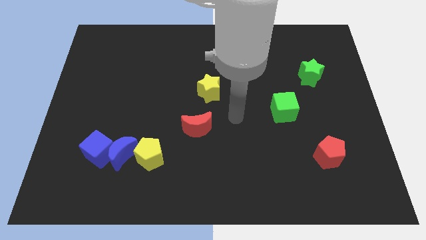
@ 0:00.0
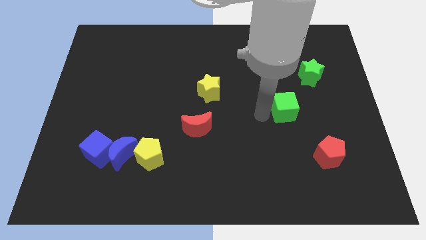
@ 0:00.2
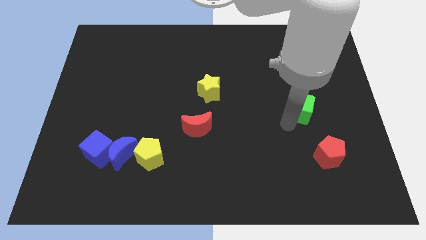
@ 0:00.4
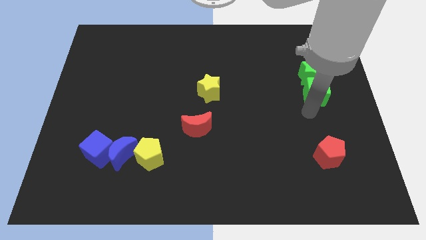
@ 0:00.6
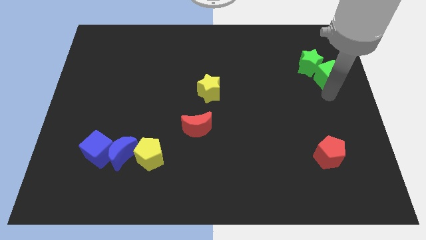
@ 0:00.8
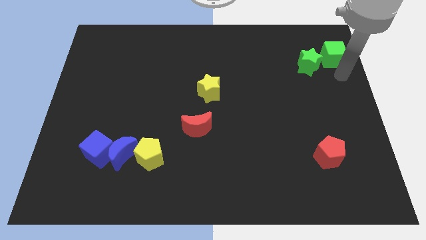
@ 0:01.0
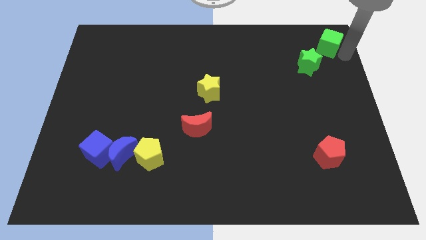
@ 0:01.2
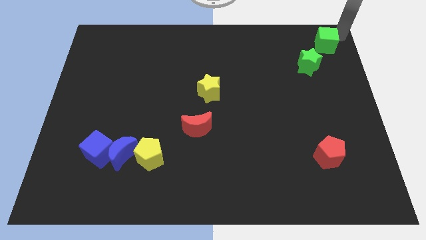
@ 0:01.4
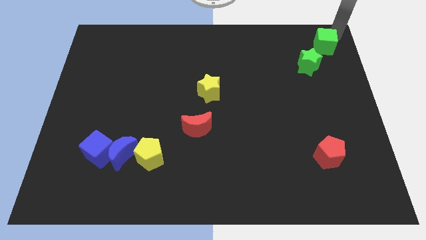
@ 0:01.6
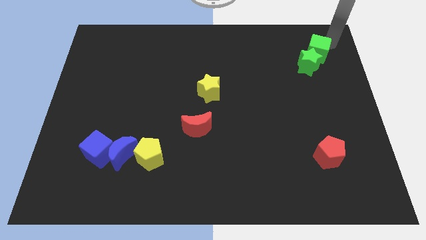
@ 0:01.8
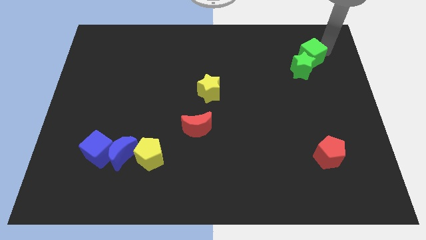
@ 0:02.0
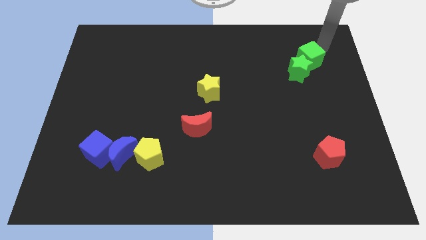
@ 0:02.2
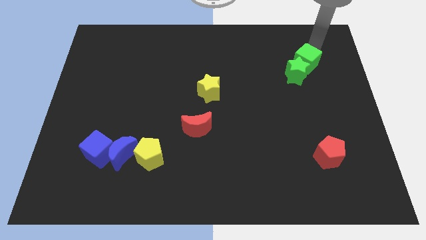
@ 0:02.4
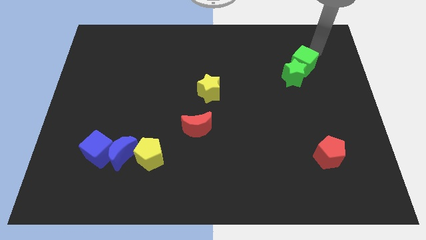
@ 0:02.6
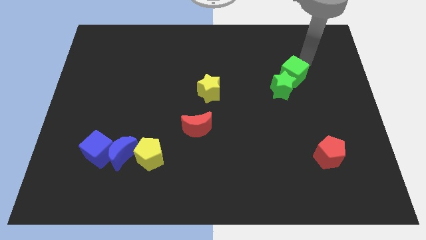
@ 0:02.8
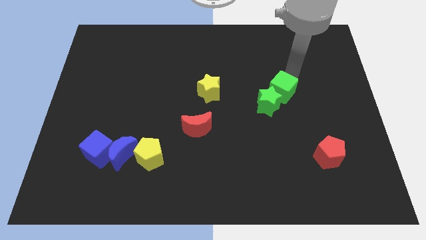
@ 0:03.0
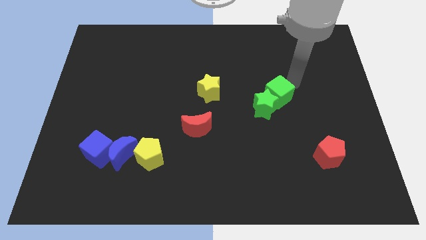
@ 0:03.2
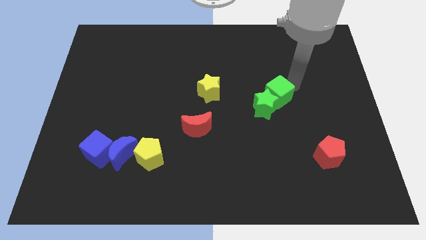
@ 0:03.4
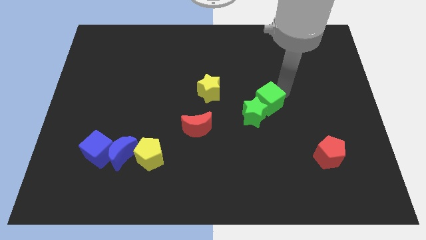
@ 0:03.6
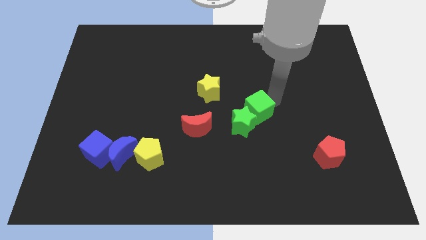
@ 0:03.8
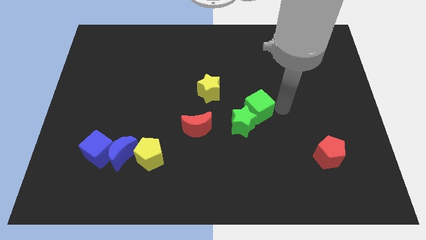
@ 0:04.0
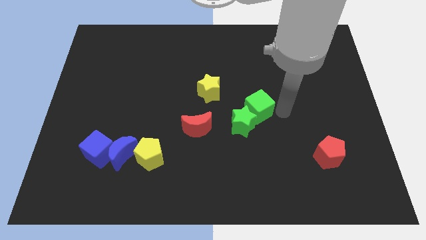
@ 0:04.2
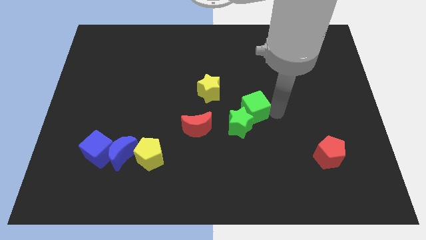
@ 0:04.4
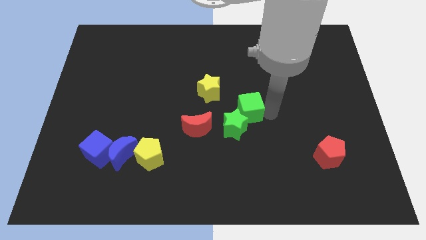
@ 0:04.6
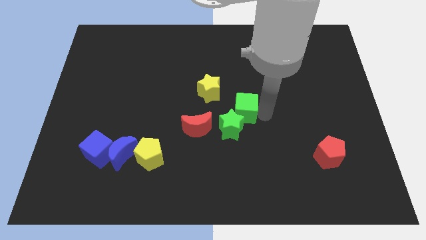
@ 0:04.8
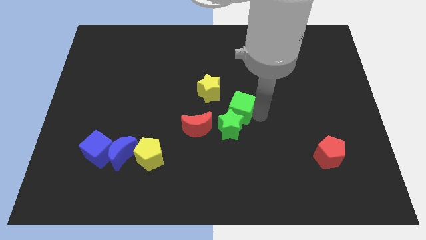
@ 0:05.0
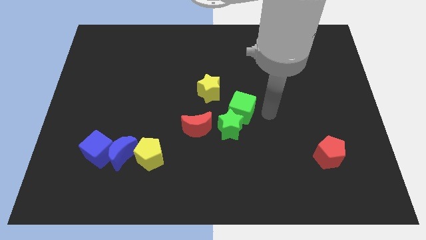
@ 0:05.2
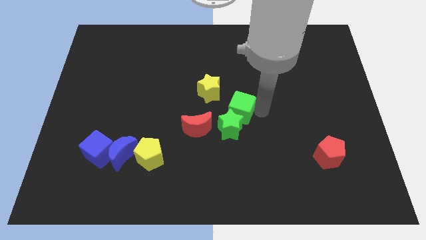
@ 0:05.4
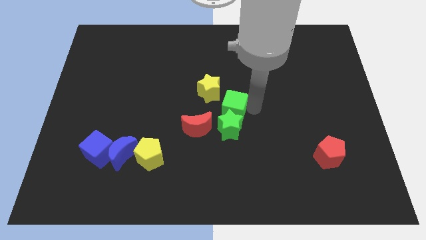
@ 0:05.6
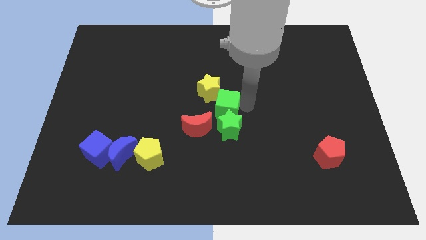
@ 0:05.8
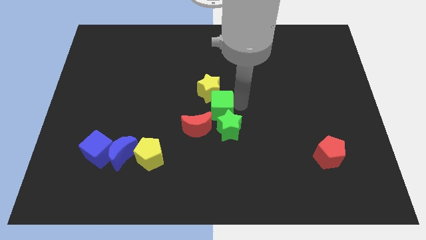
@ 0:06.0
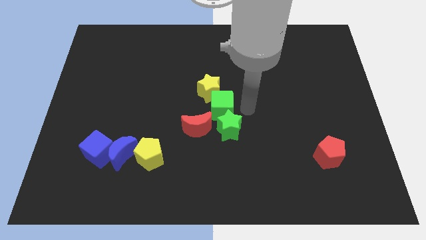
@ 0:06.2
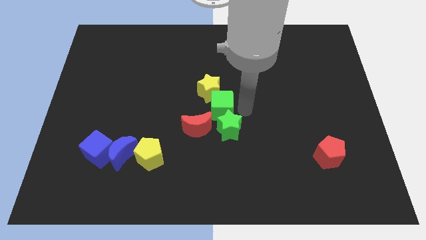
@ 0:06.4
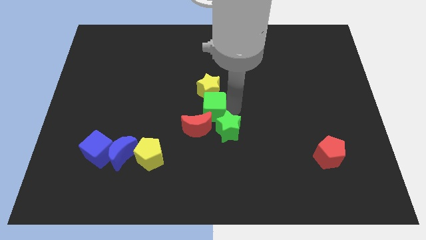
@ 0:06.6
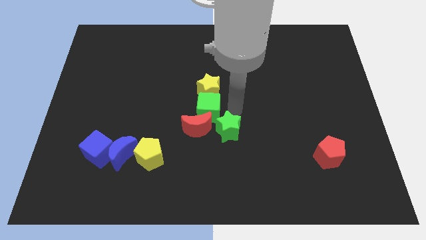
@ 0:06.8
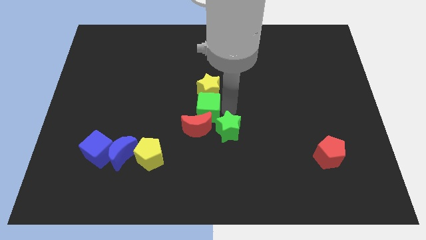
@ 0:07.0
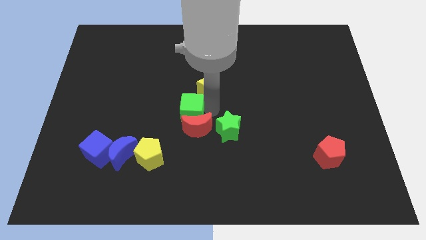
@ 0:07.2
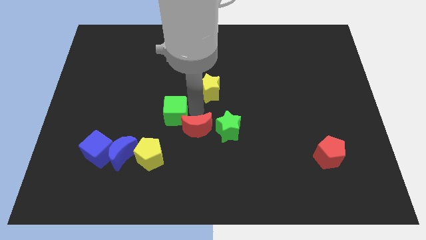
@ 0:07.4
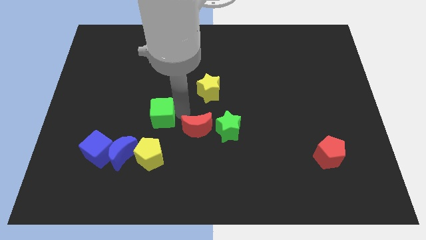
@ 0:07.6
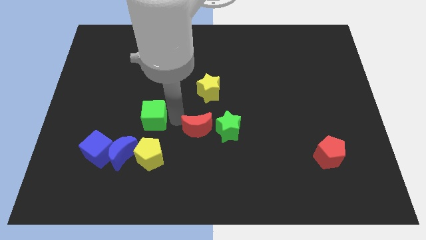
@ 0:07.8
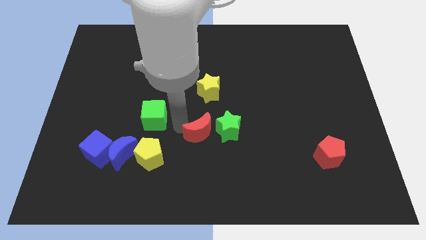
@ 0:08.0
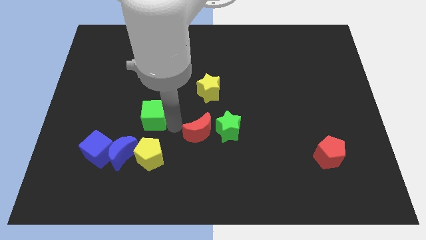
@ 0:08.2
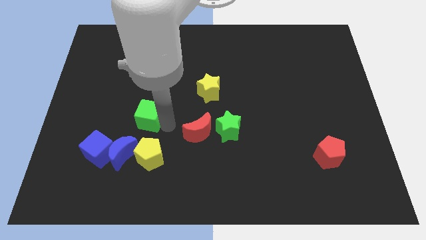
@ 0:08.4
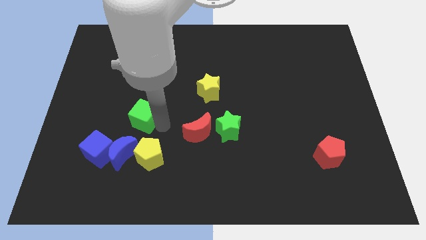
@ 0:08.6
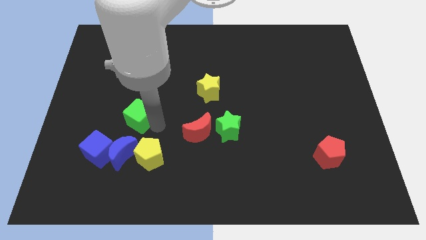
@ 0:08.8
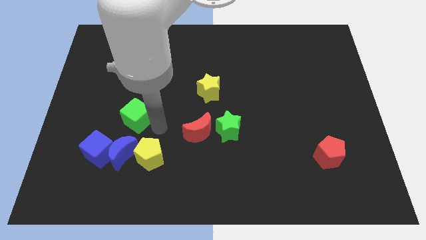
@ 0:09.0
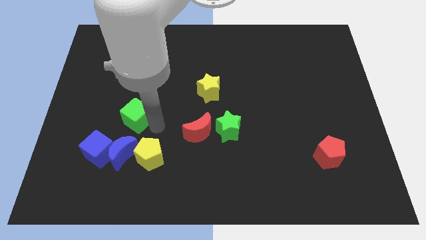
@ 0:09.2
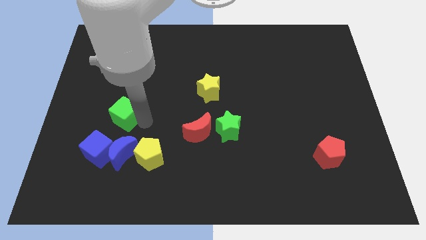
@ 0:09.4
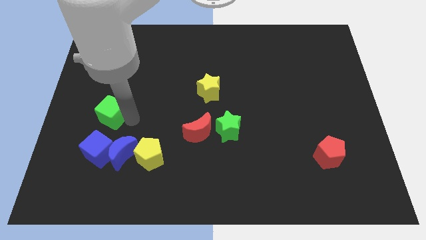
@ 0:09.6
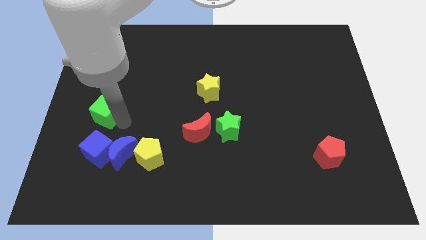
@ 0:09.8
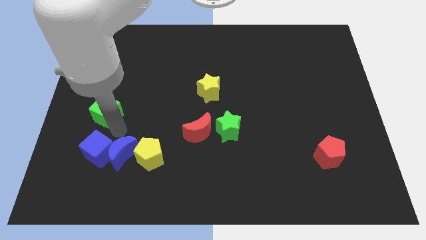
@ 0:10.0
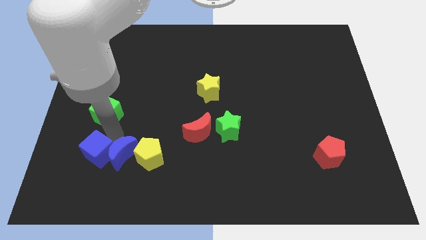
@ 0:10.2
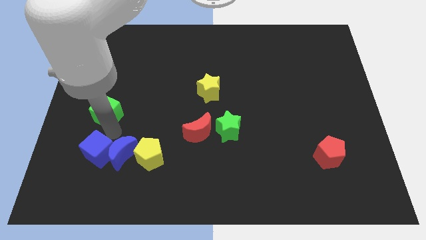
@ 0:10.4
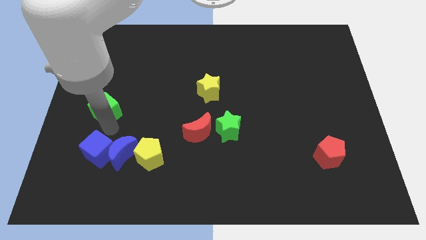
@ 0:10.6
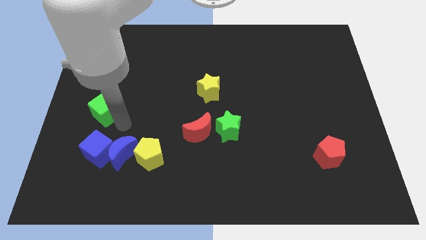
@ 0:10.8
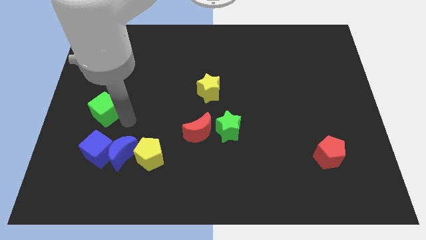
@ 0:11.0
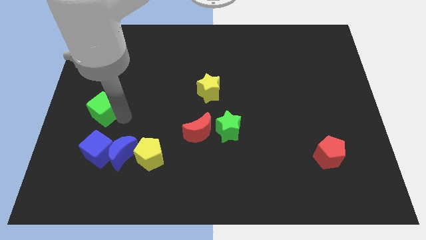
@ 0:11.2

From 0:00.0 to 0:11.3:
put the green cube to the left side

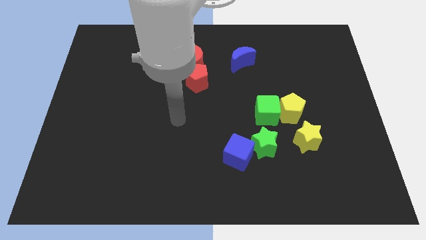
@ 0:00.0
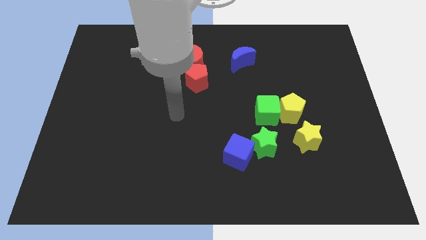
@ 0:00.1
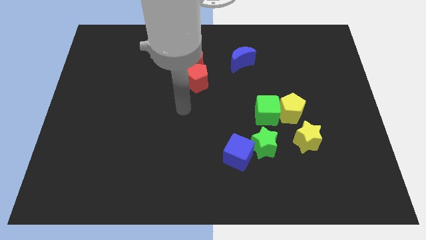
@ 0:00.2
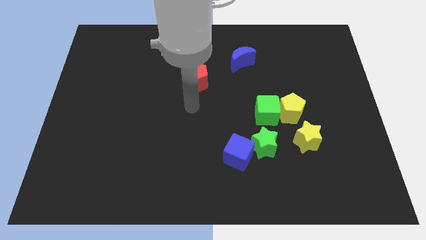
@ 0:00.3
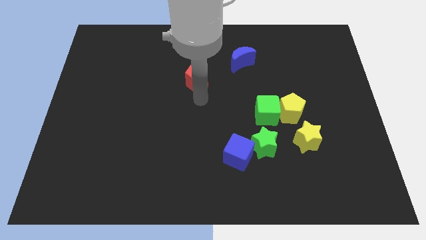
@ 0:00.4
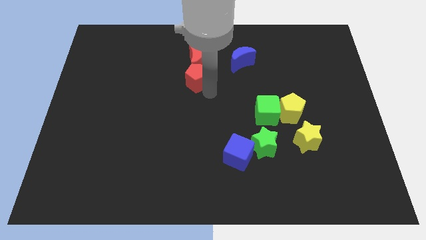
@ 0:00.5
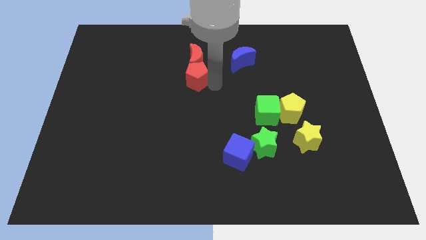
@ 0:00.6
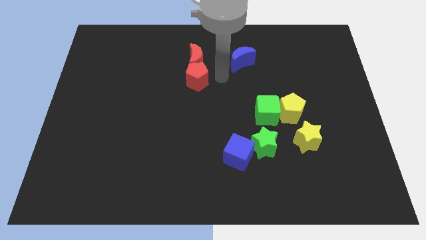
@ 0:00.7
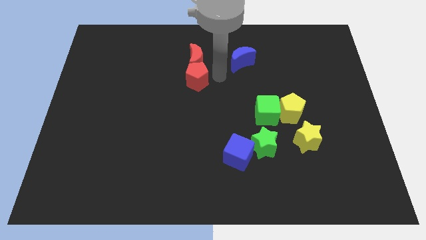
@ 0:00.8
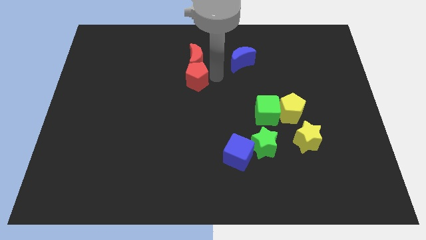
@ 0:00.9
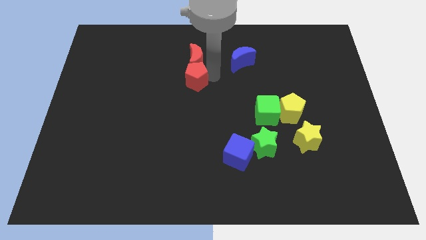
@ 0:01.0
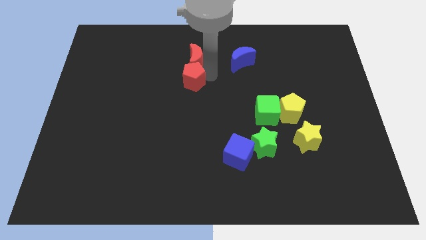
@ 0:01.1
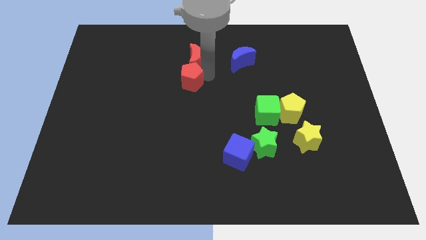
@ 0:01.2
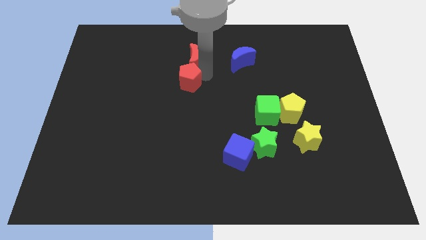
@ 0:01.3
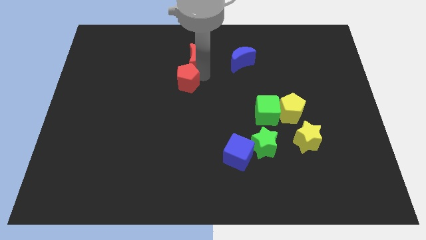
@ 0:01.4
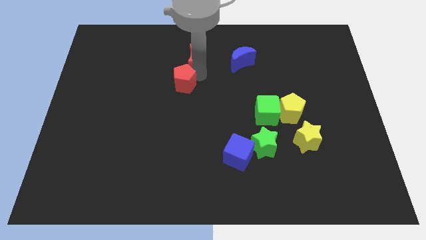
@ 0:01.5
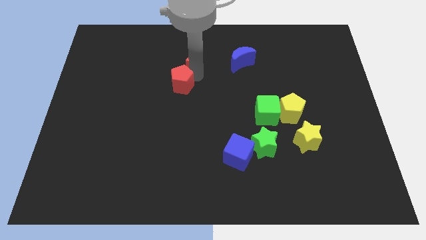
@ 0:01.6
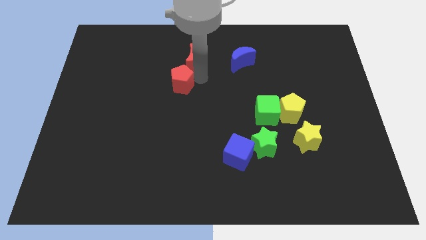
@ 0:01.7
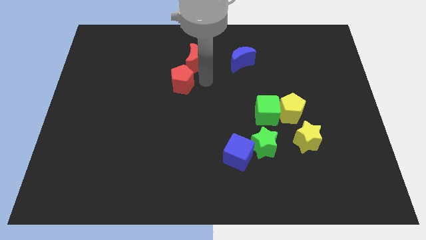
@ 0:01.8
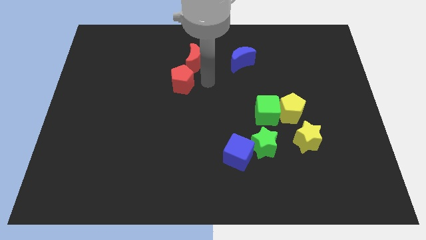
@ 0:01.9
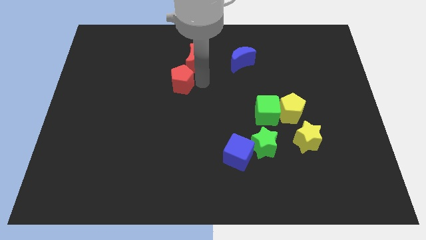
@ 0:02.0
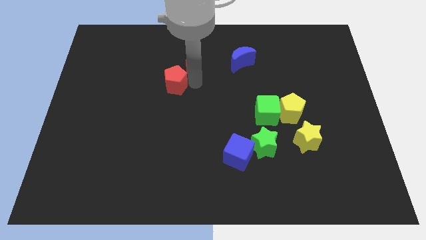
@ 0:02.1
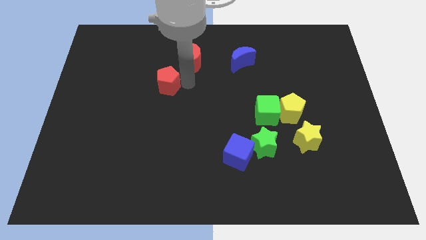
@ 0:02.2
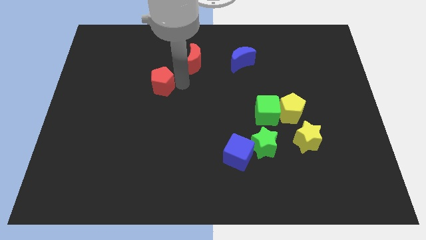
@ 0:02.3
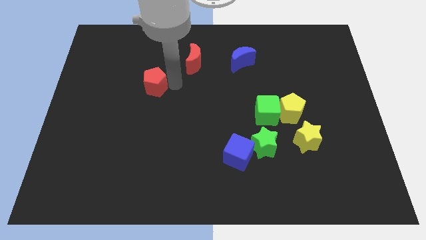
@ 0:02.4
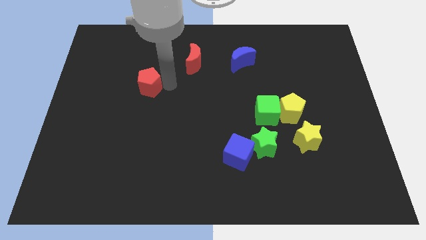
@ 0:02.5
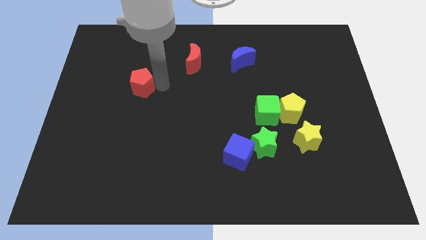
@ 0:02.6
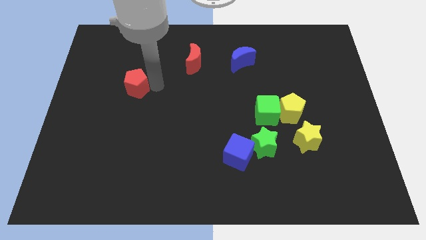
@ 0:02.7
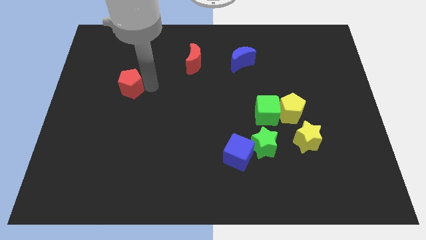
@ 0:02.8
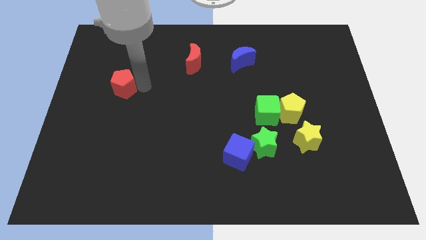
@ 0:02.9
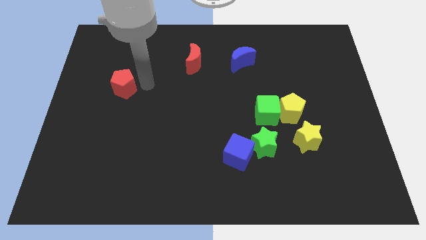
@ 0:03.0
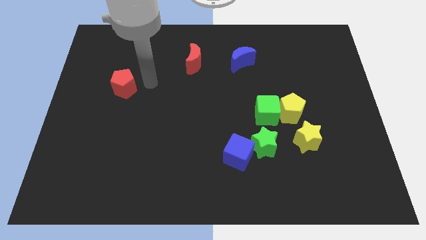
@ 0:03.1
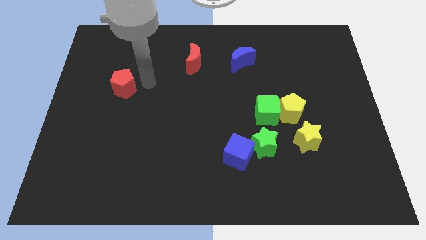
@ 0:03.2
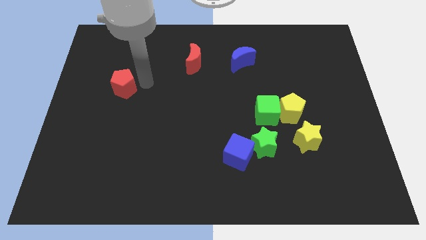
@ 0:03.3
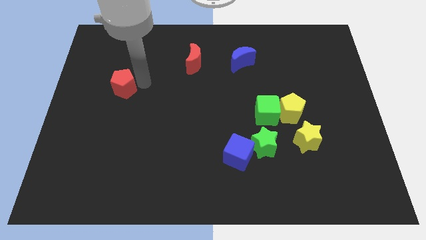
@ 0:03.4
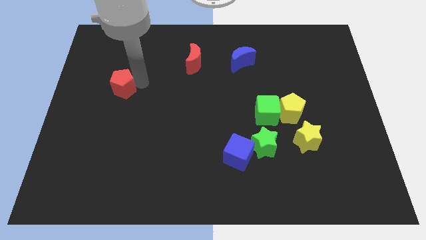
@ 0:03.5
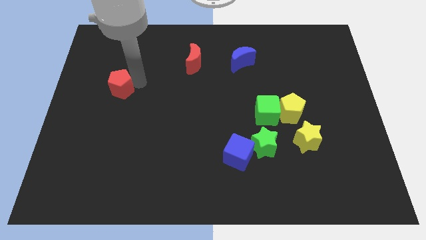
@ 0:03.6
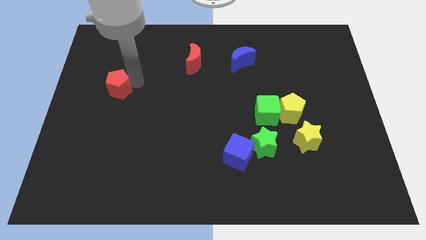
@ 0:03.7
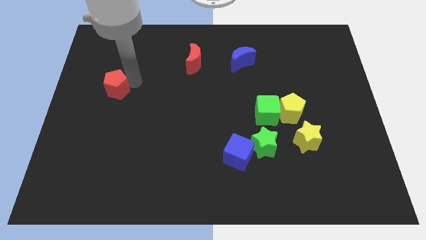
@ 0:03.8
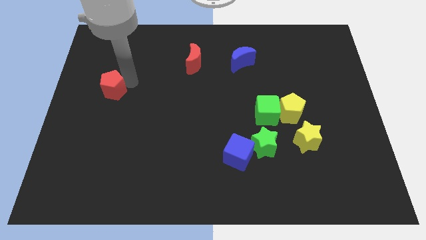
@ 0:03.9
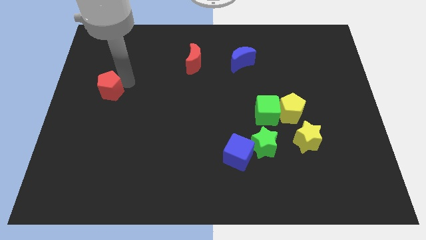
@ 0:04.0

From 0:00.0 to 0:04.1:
slide the red pentagon to the left side of the board
